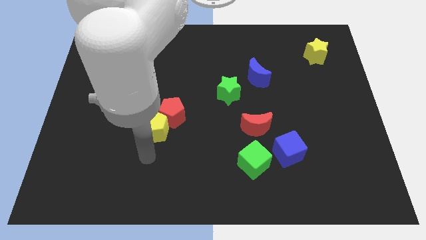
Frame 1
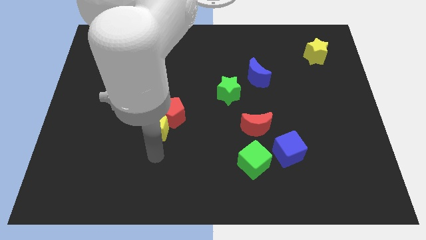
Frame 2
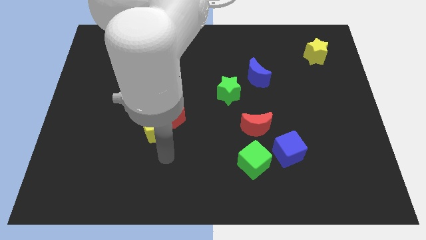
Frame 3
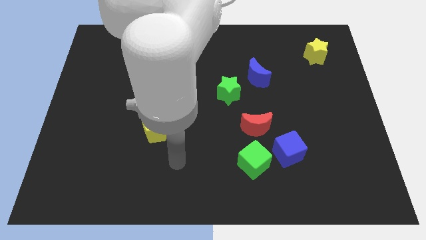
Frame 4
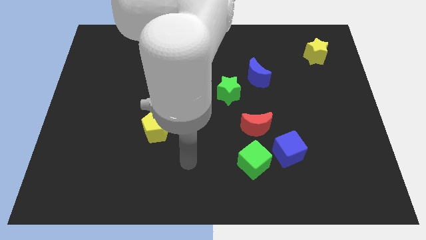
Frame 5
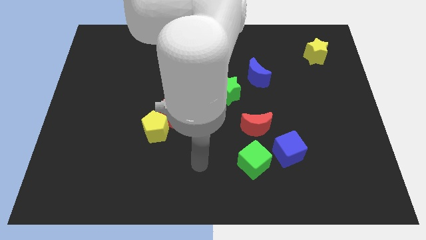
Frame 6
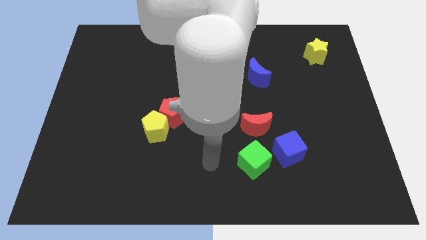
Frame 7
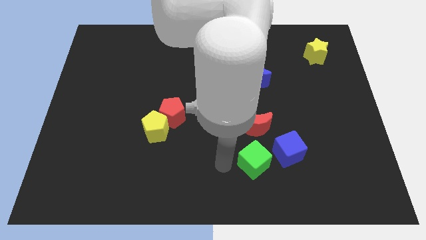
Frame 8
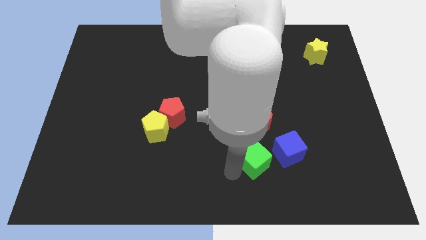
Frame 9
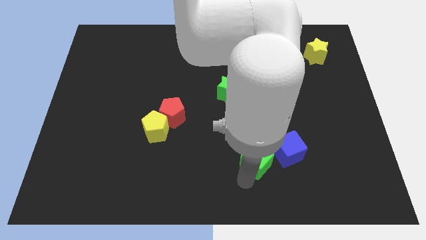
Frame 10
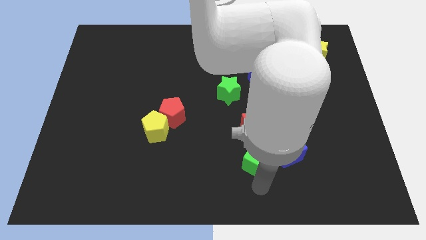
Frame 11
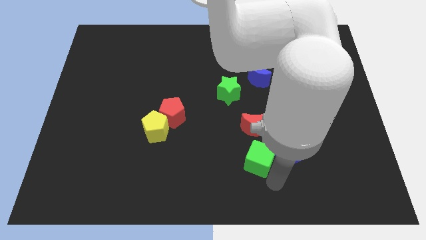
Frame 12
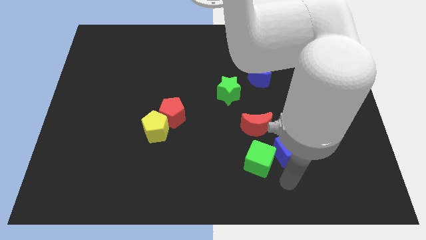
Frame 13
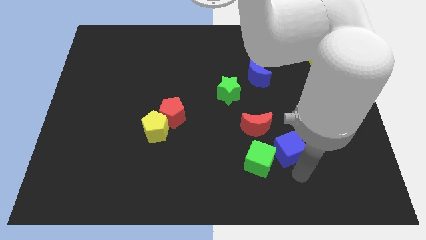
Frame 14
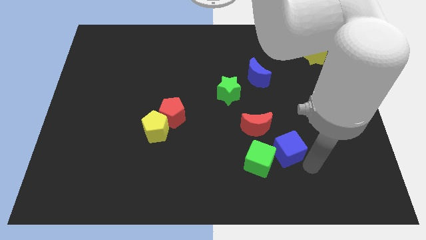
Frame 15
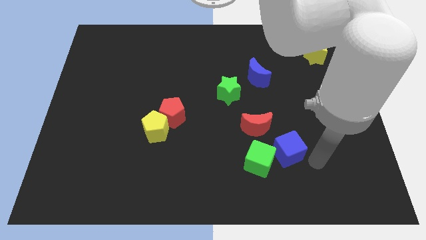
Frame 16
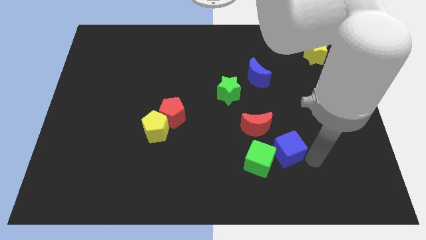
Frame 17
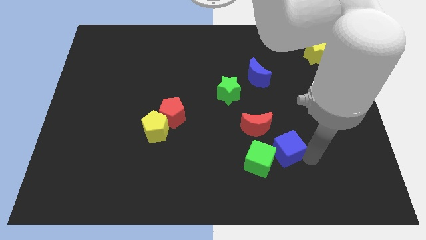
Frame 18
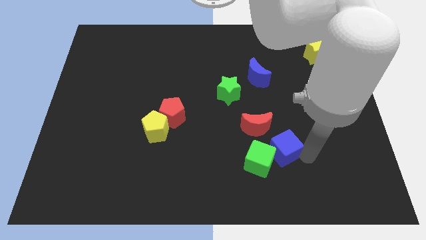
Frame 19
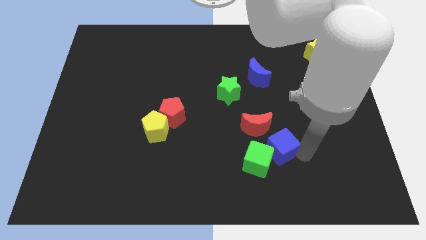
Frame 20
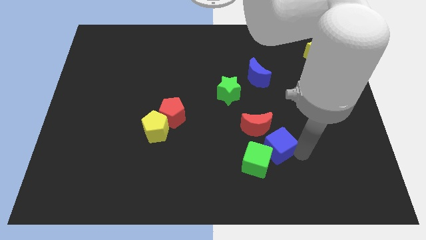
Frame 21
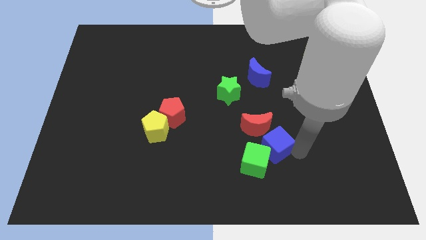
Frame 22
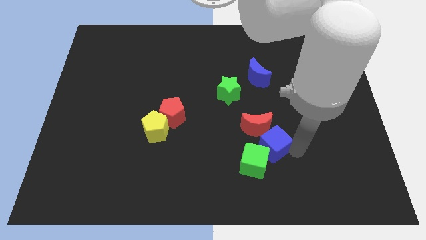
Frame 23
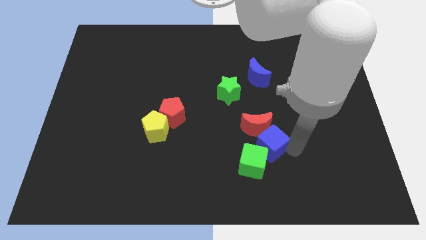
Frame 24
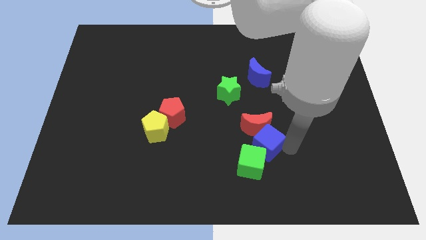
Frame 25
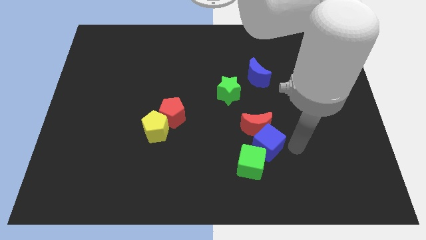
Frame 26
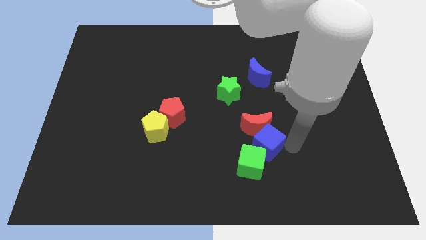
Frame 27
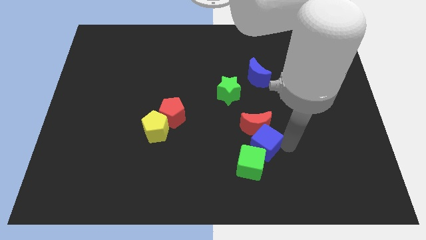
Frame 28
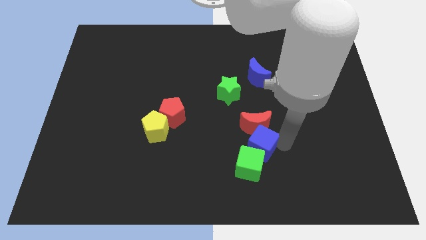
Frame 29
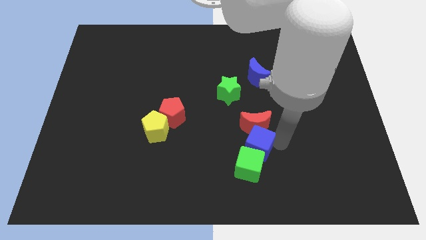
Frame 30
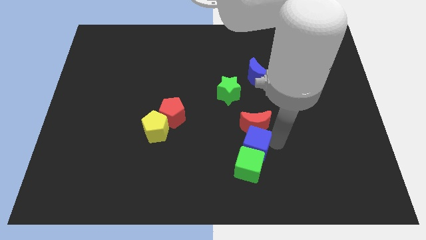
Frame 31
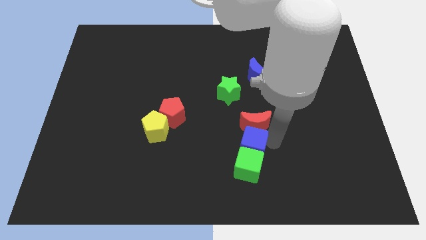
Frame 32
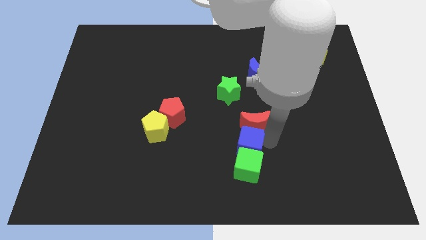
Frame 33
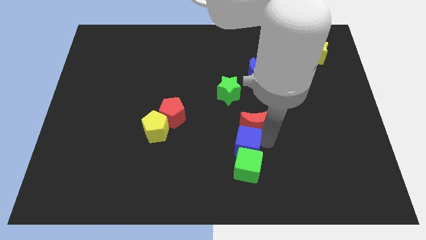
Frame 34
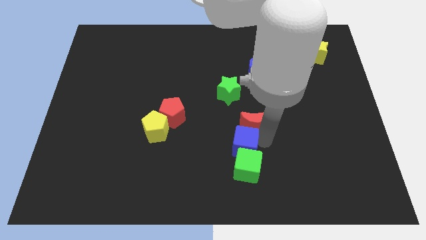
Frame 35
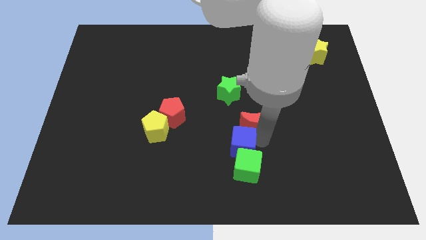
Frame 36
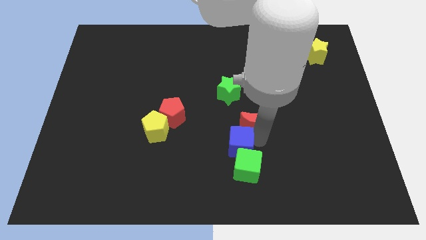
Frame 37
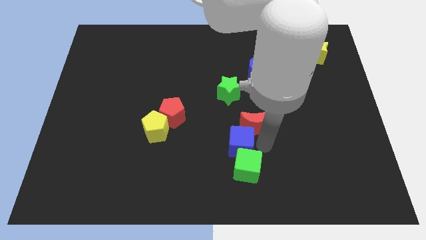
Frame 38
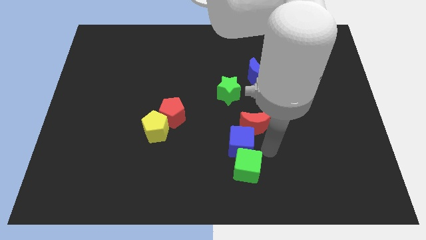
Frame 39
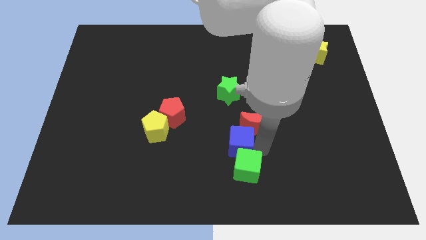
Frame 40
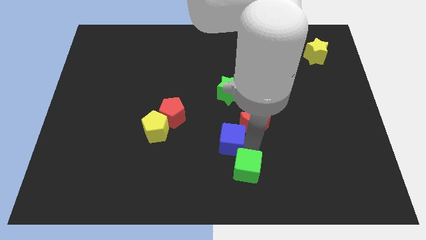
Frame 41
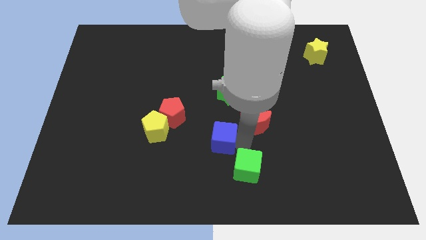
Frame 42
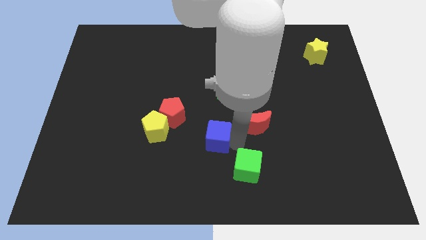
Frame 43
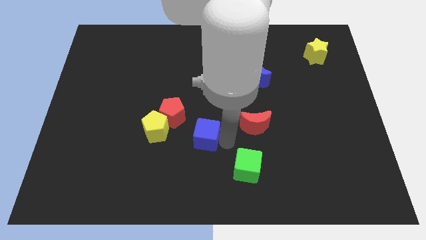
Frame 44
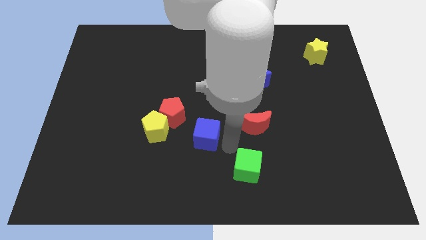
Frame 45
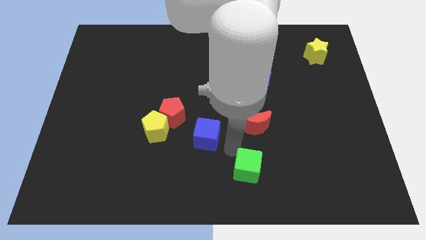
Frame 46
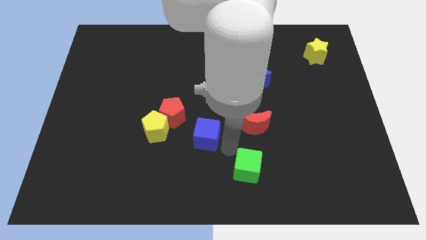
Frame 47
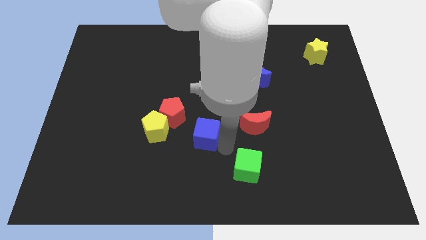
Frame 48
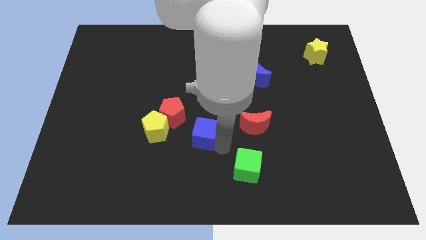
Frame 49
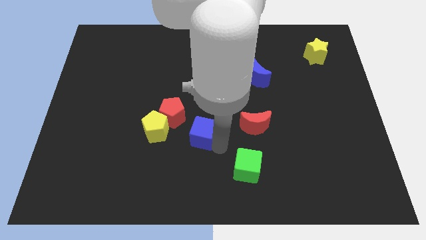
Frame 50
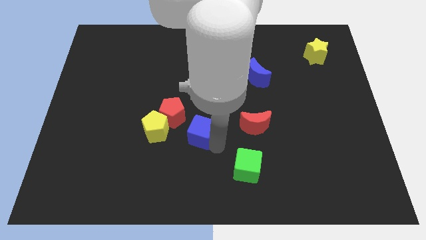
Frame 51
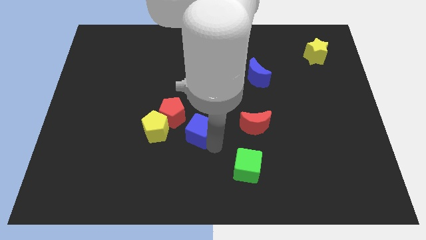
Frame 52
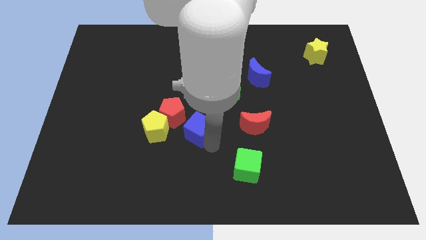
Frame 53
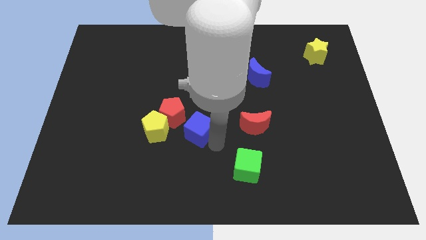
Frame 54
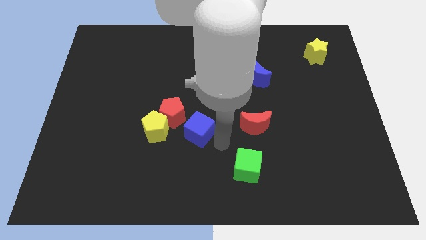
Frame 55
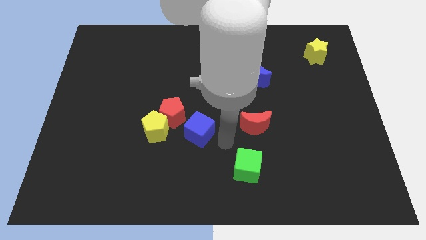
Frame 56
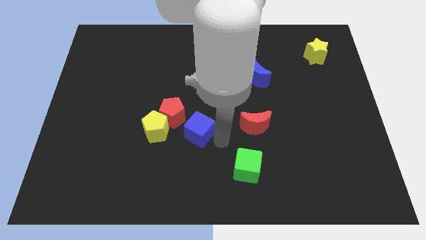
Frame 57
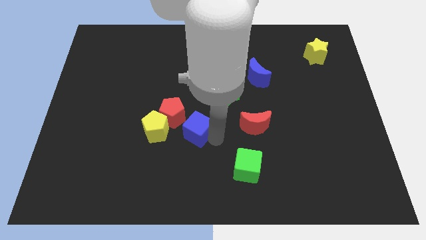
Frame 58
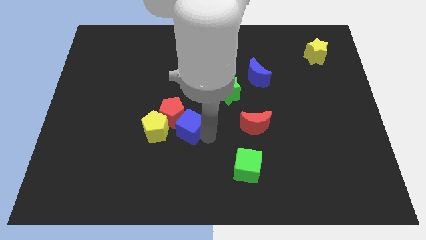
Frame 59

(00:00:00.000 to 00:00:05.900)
move the blue cube next to the red pentagon

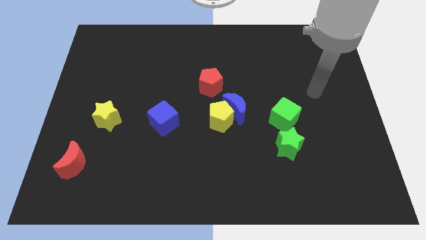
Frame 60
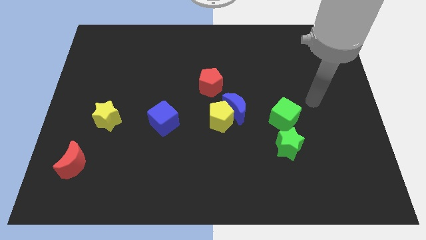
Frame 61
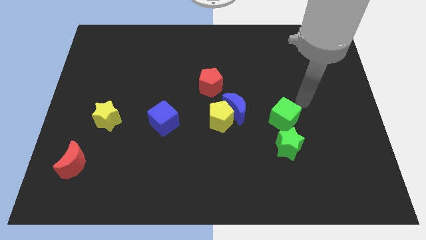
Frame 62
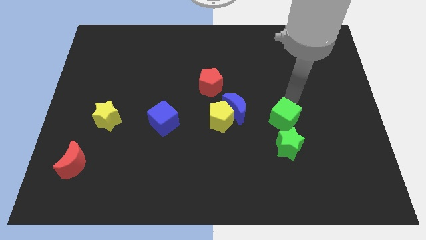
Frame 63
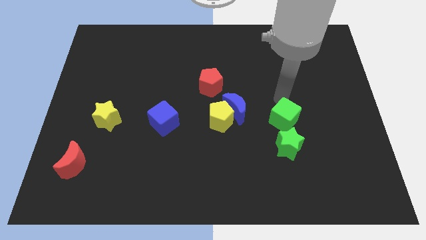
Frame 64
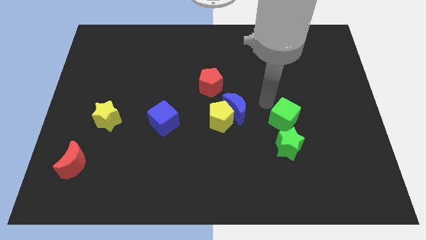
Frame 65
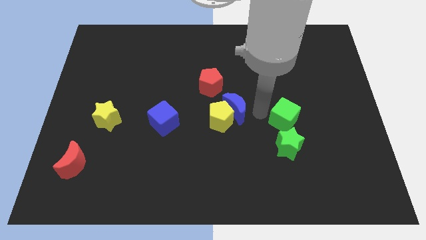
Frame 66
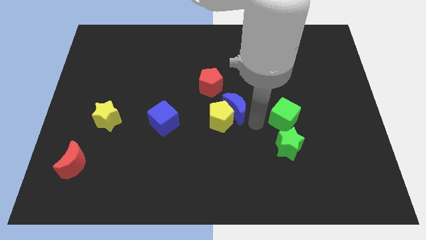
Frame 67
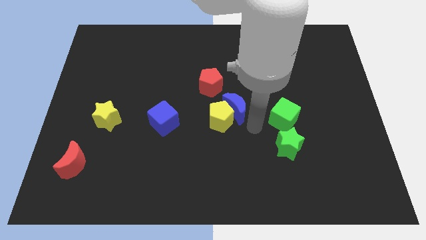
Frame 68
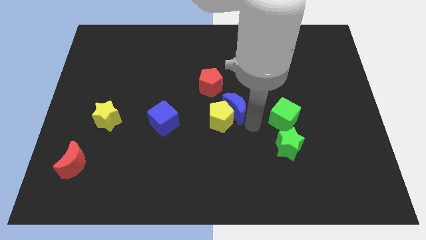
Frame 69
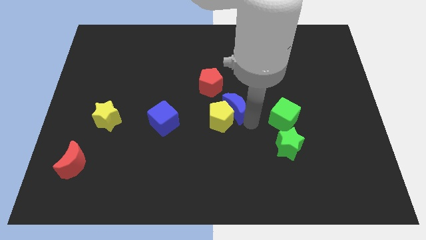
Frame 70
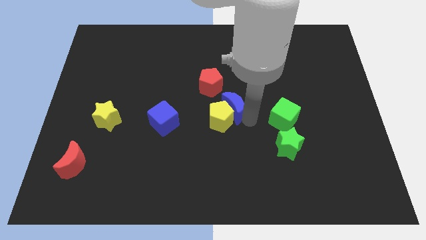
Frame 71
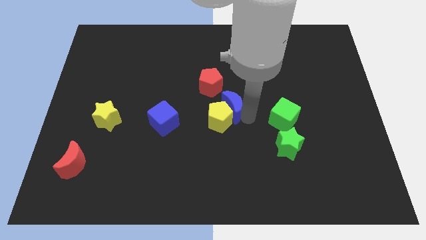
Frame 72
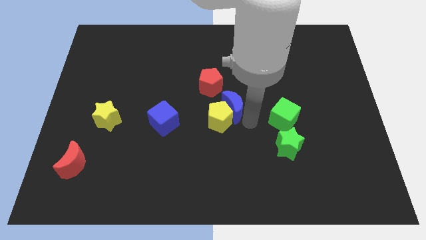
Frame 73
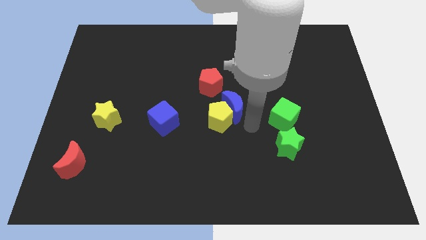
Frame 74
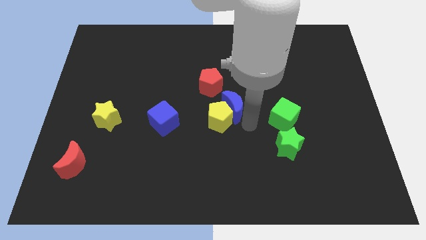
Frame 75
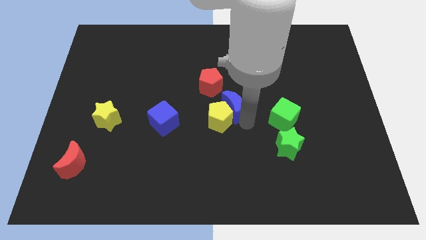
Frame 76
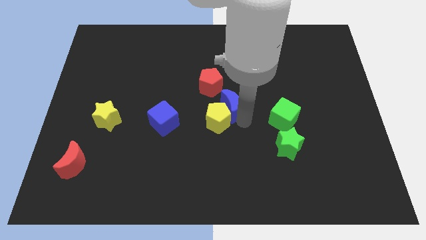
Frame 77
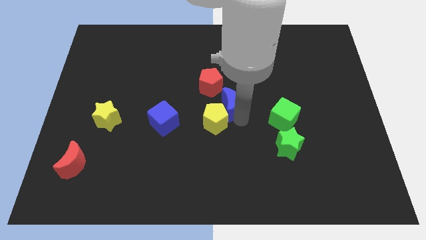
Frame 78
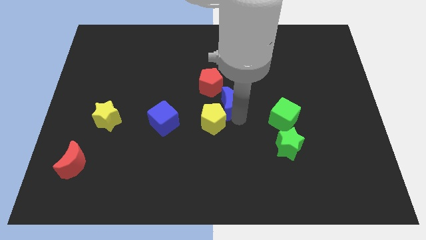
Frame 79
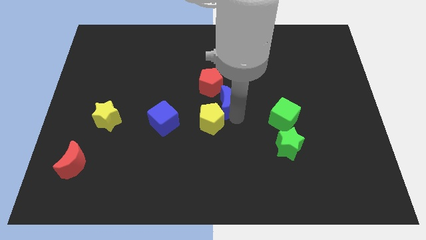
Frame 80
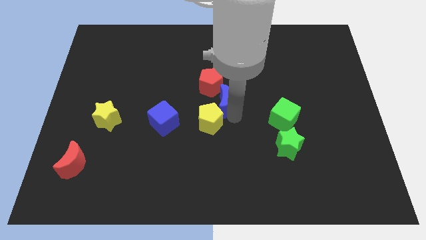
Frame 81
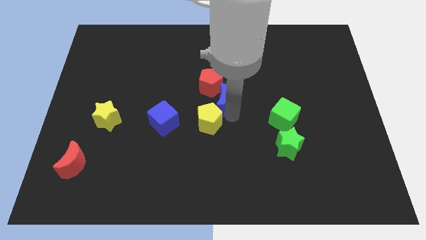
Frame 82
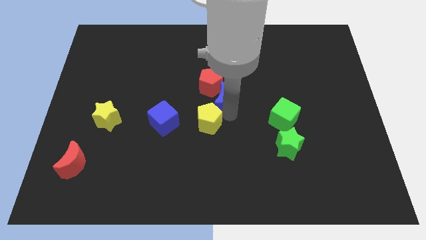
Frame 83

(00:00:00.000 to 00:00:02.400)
move the blue moon towards the red pentagon
